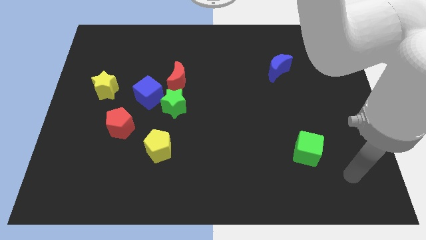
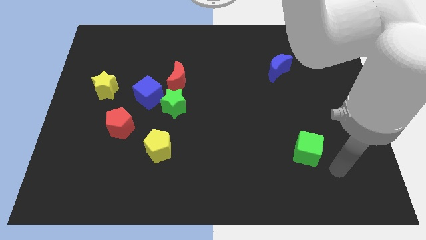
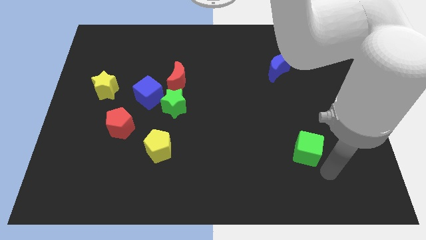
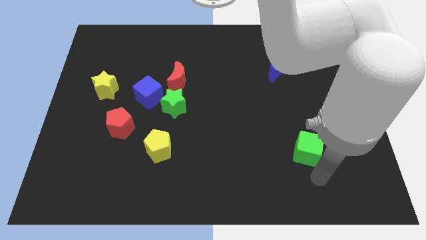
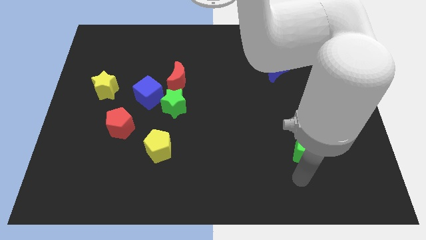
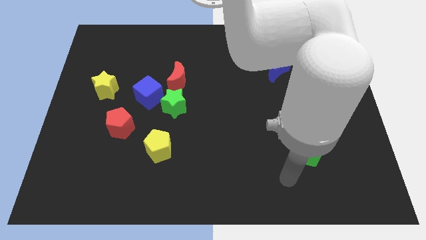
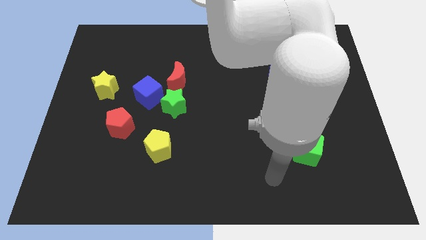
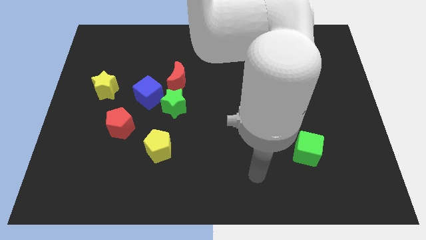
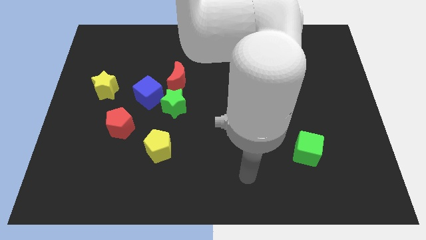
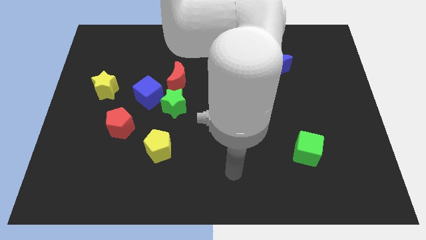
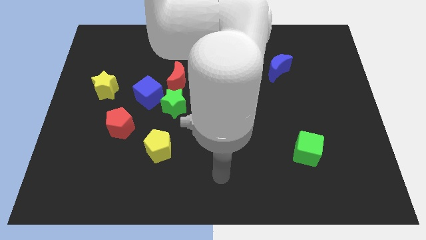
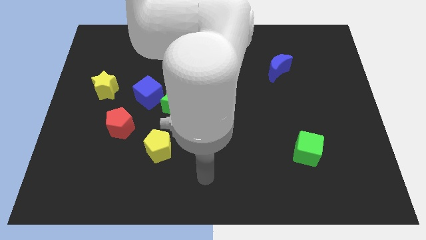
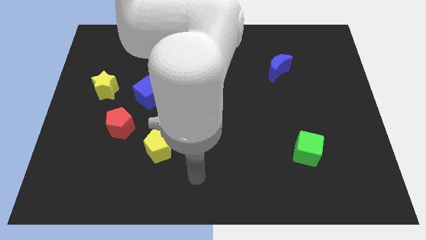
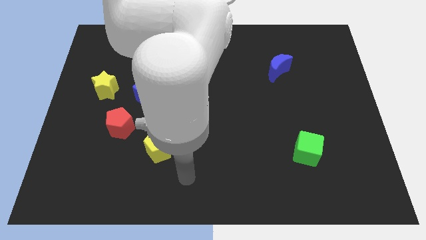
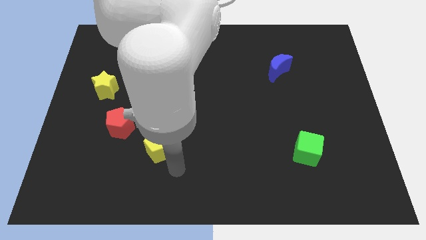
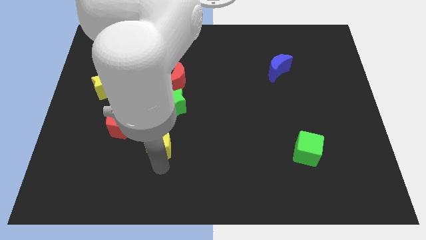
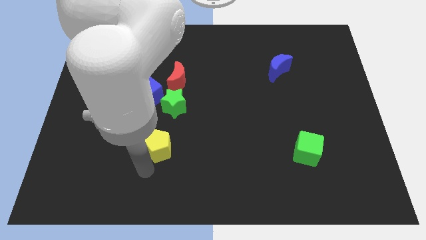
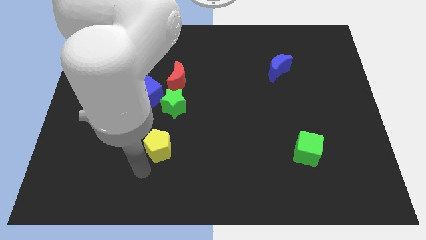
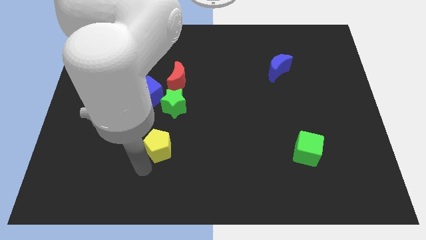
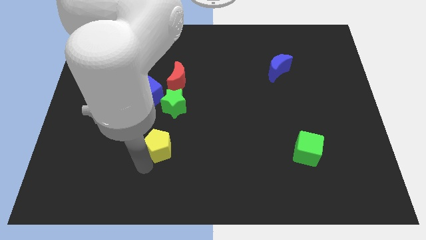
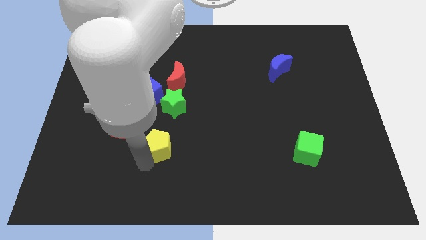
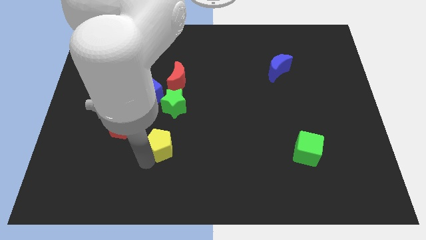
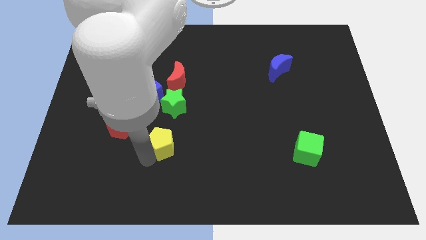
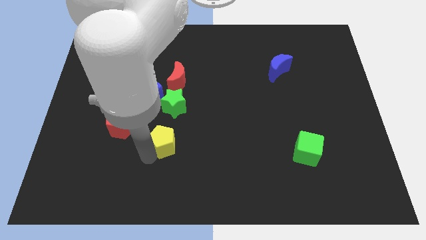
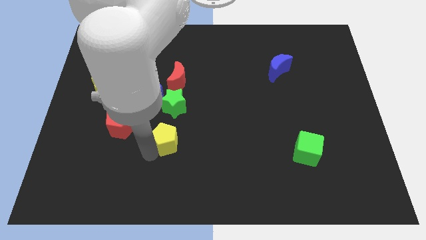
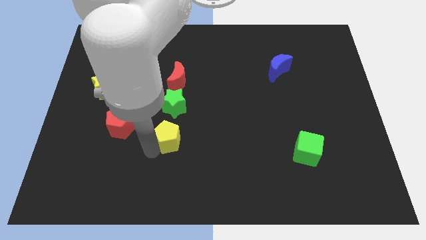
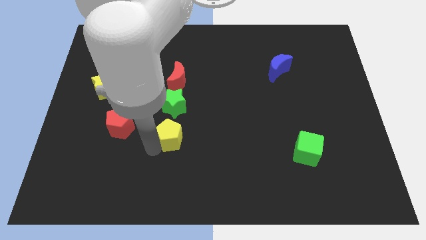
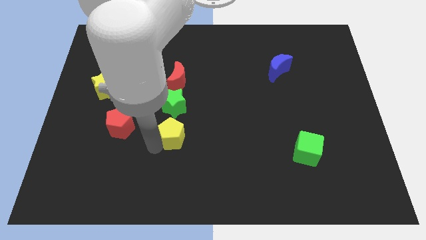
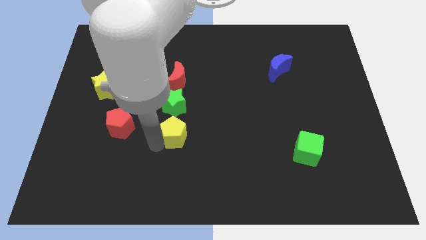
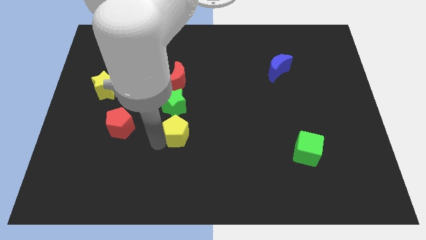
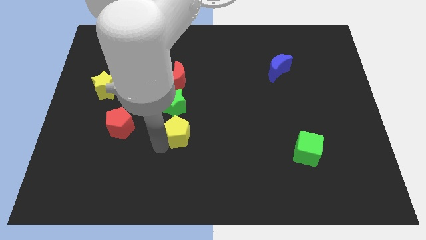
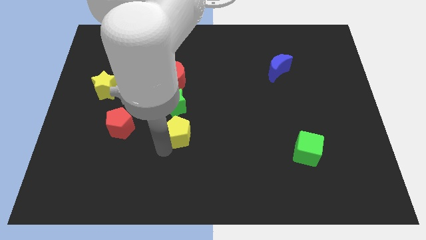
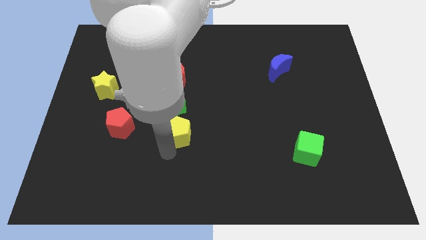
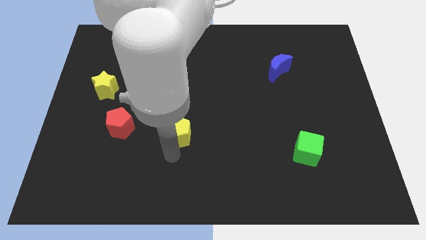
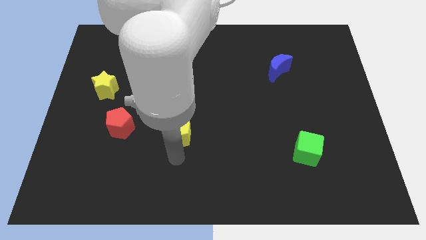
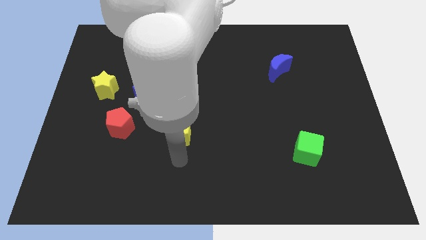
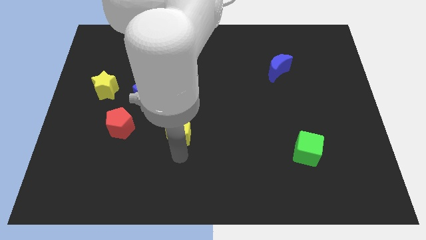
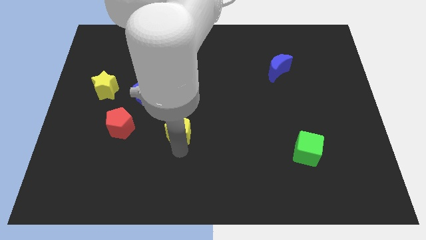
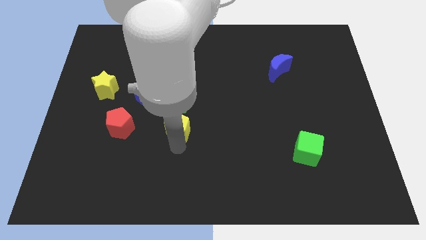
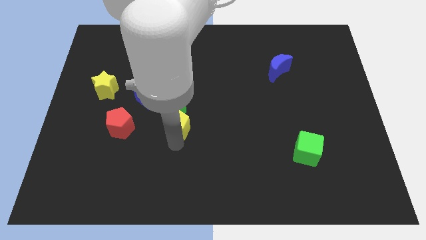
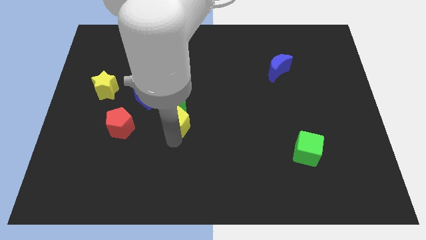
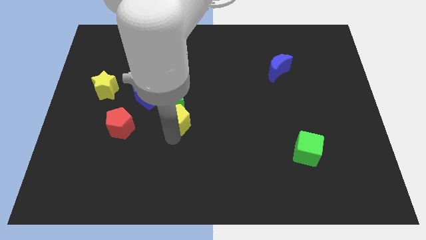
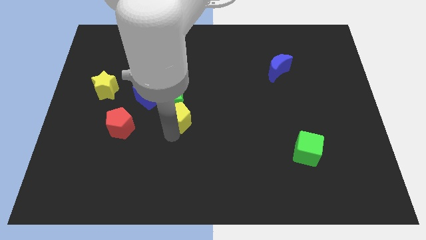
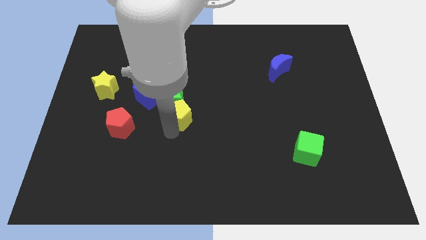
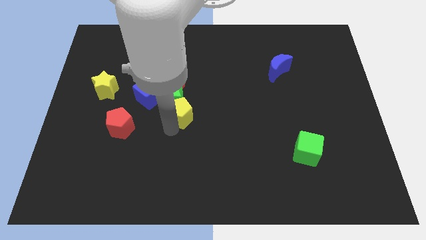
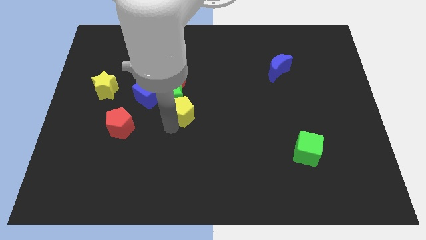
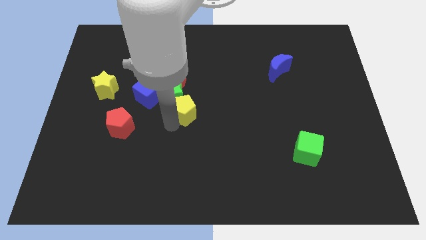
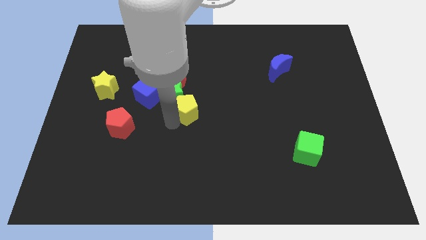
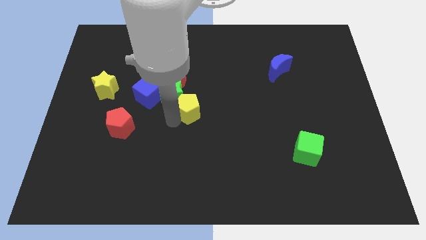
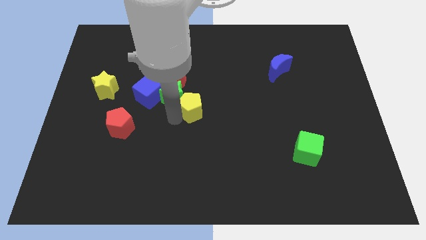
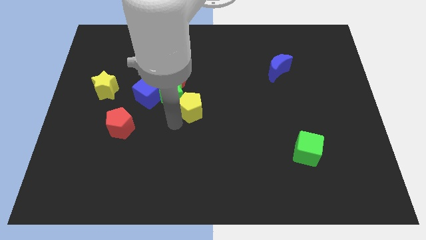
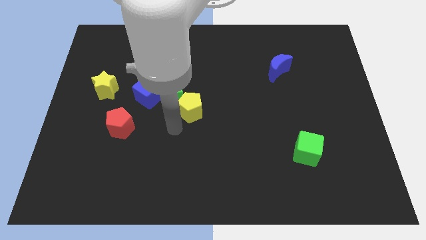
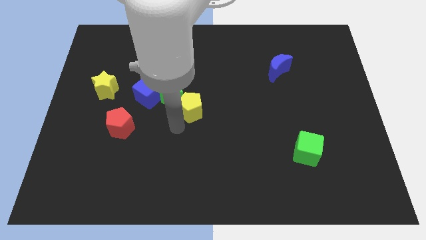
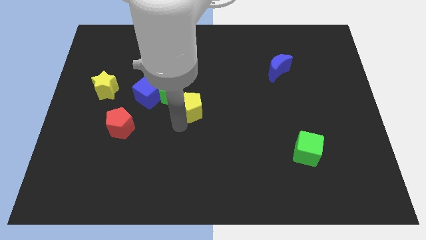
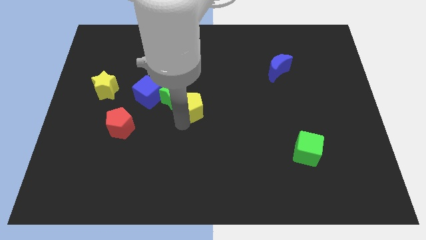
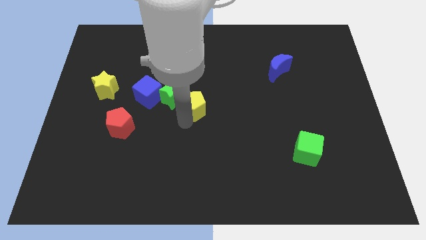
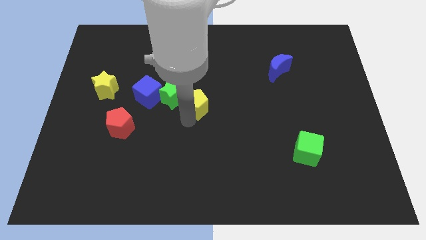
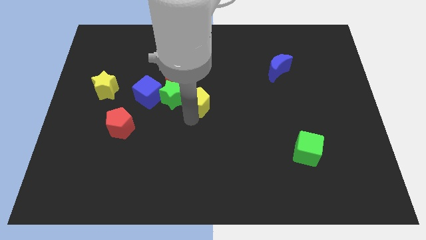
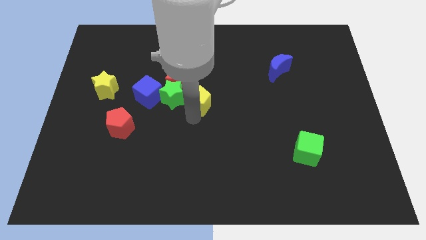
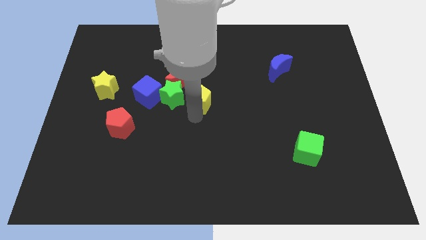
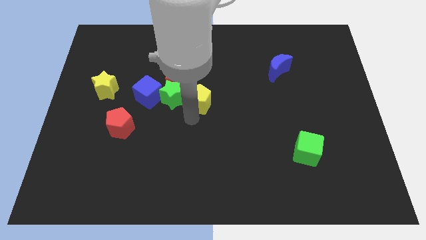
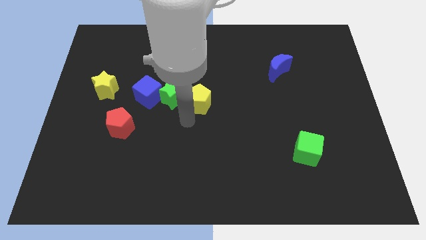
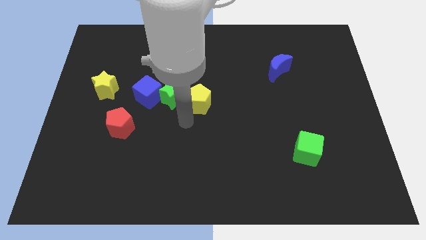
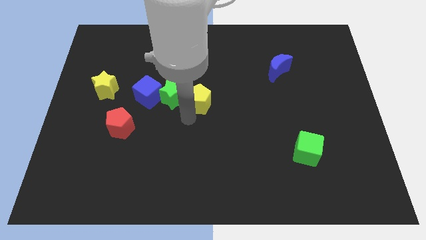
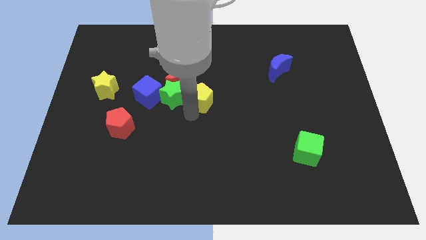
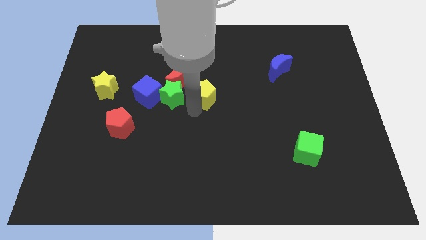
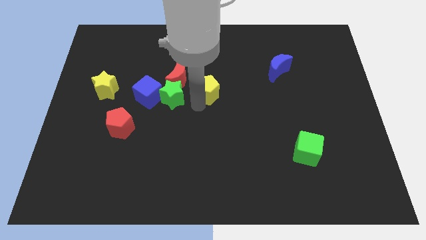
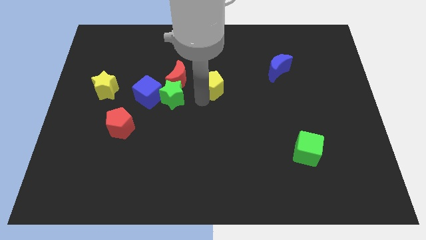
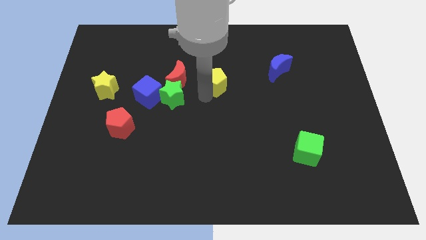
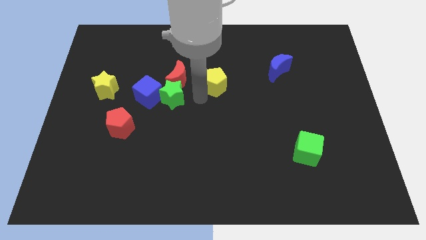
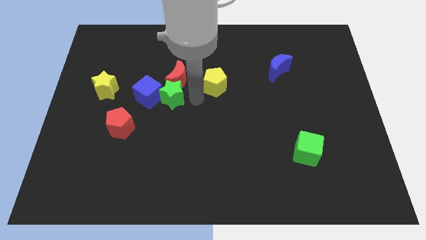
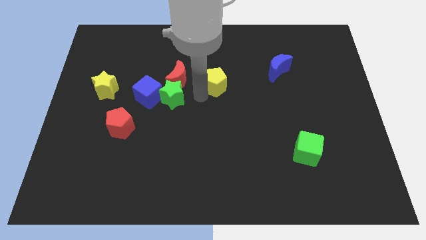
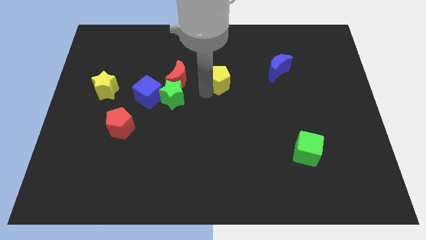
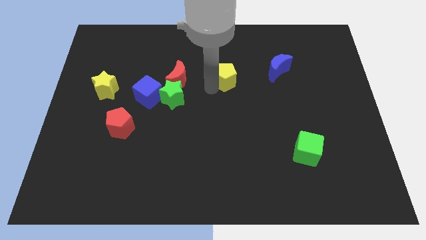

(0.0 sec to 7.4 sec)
put the yellow pentagon to the left side of the blue moon
